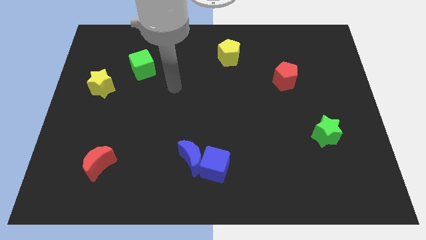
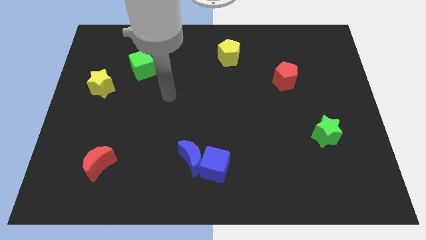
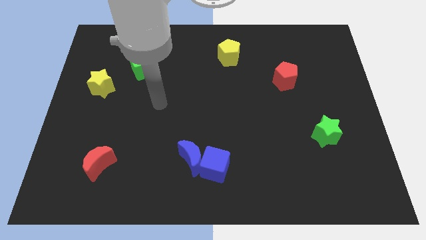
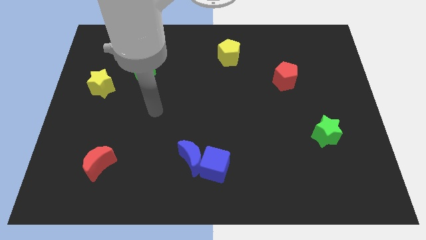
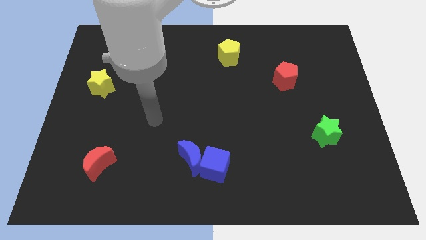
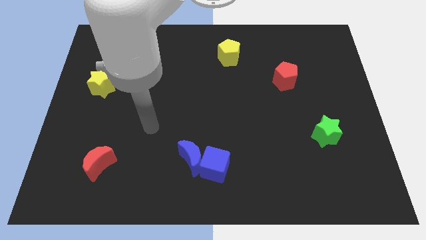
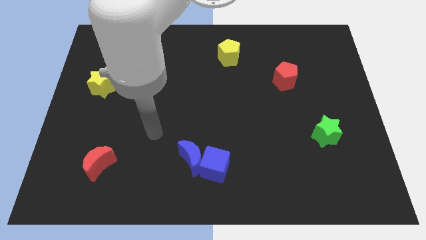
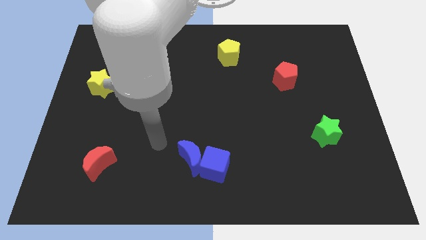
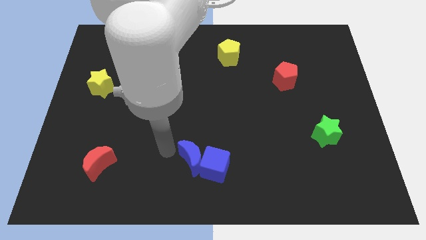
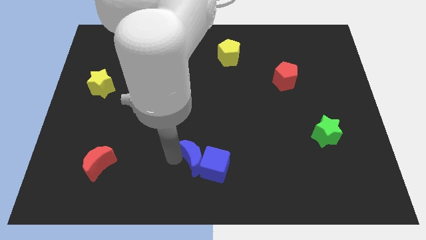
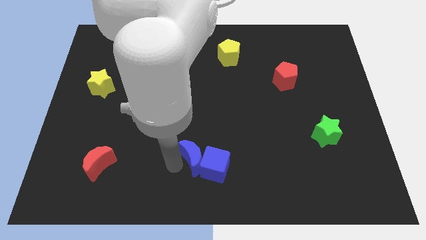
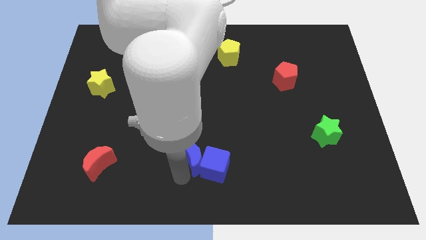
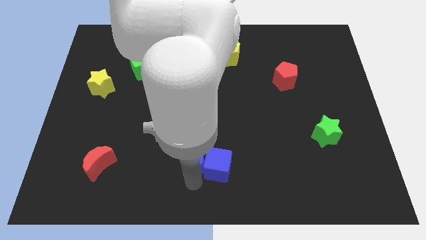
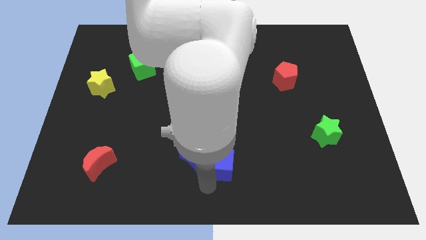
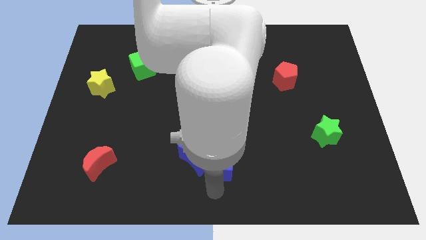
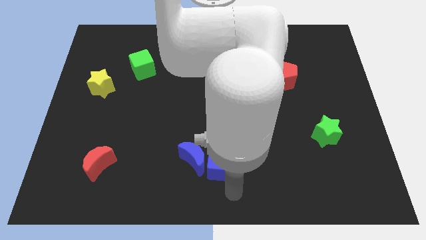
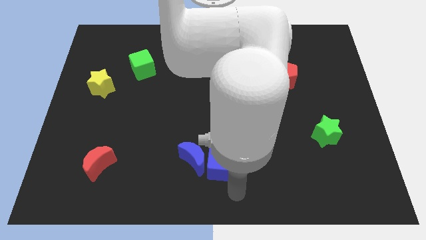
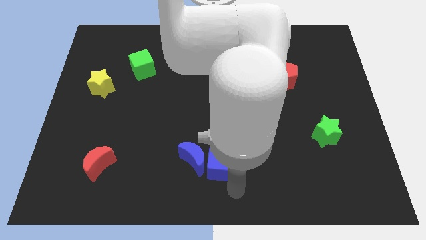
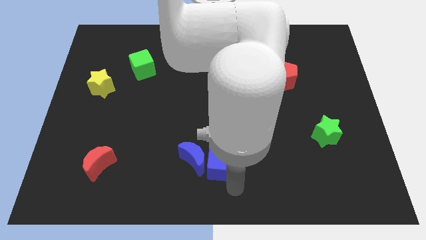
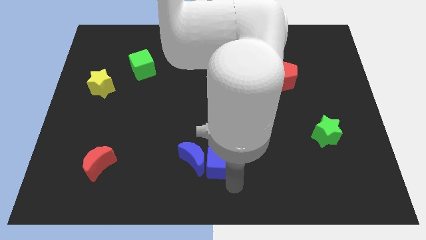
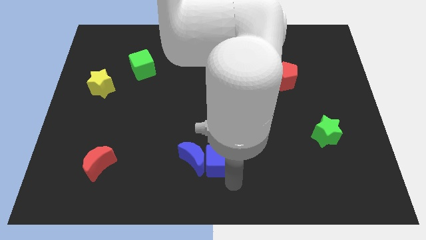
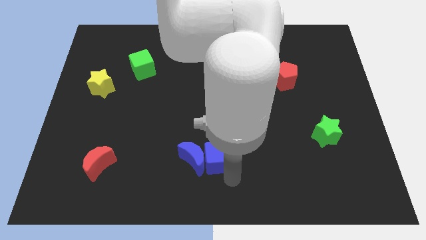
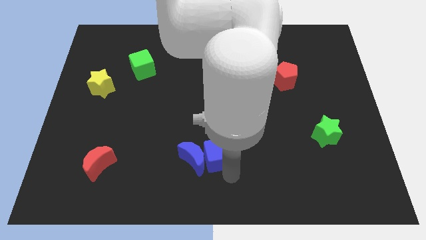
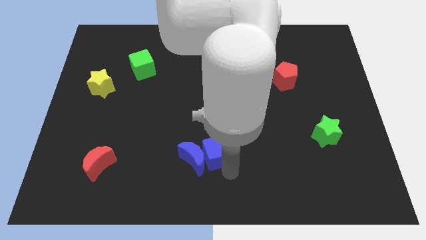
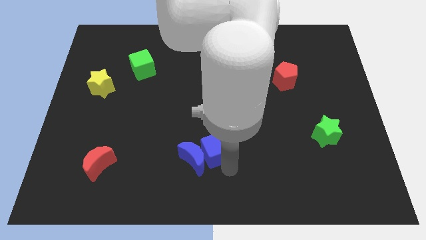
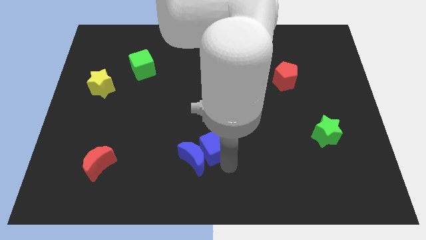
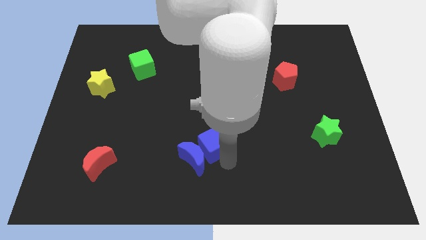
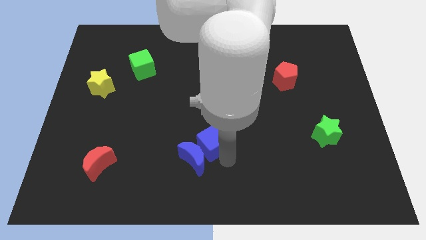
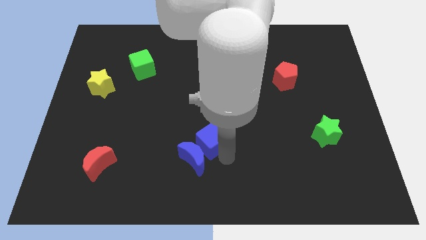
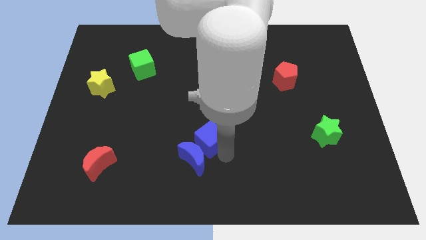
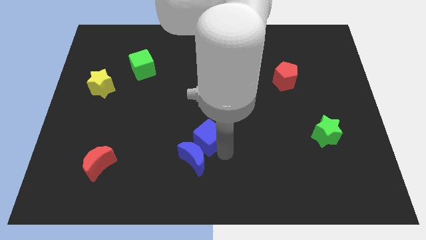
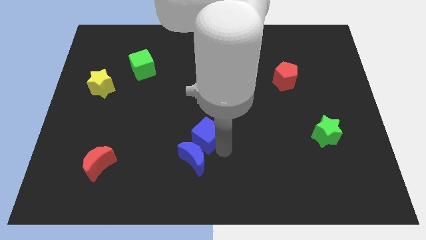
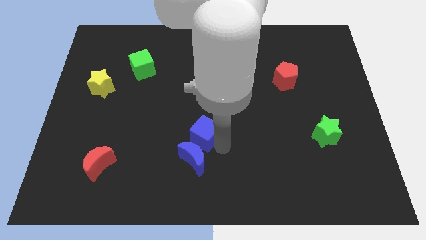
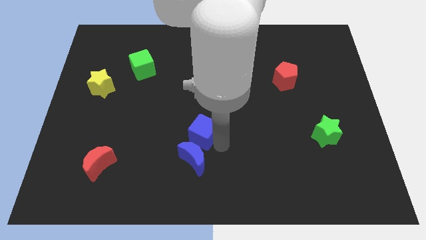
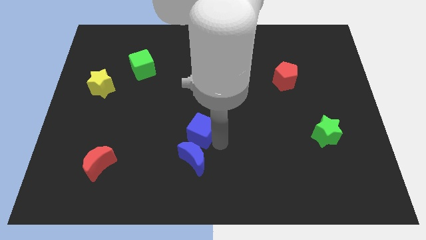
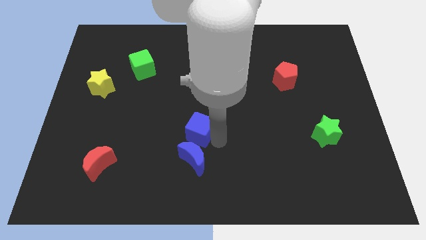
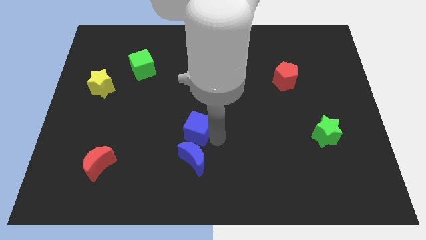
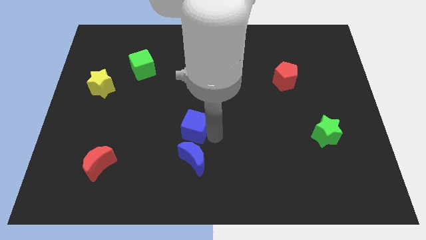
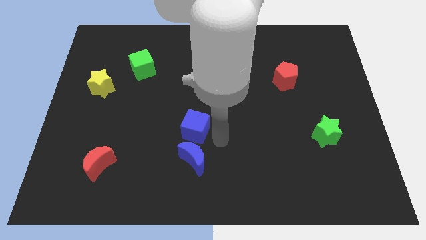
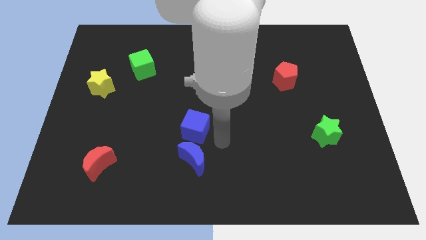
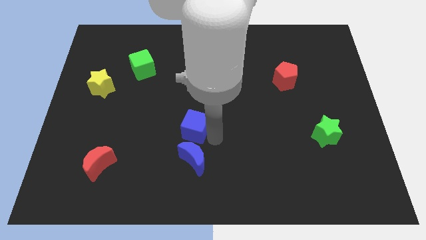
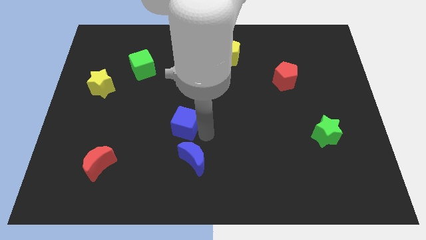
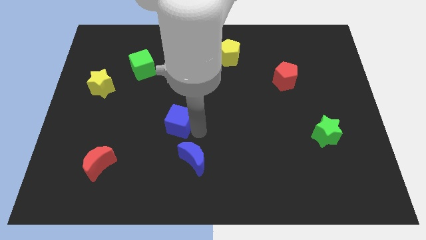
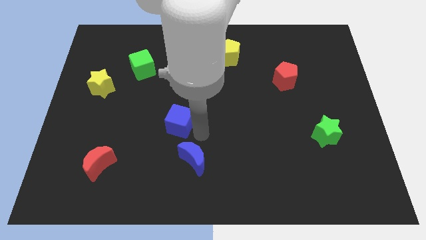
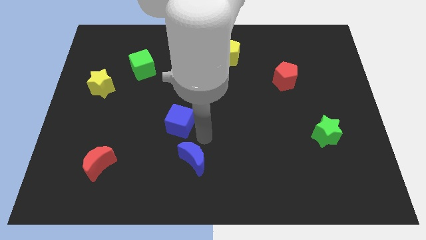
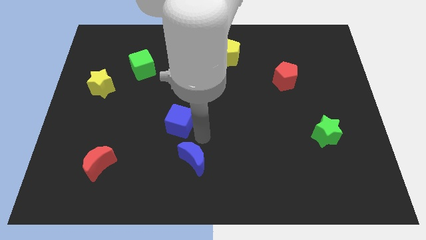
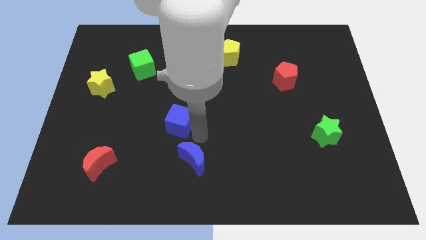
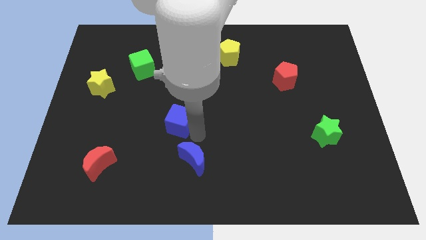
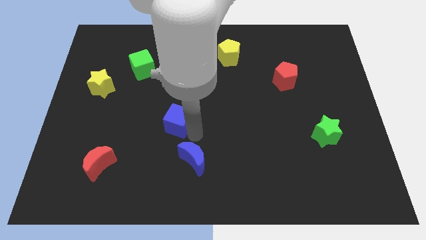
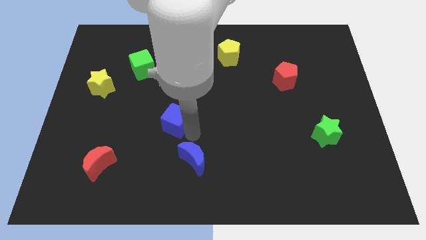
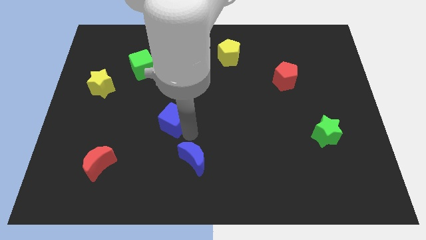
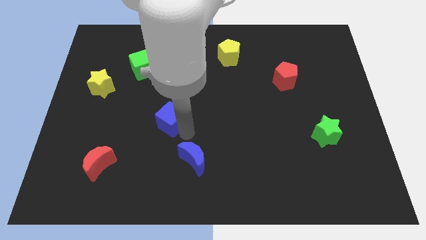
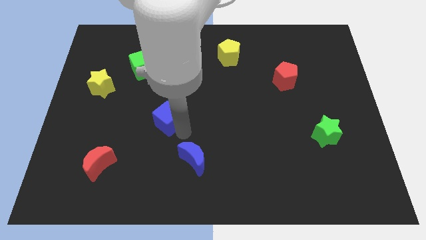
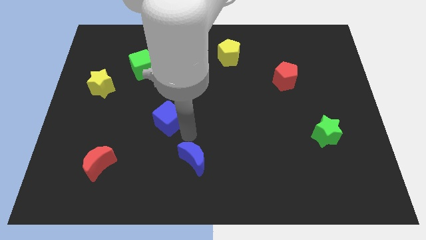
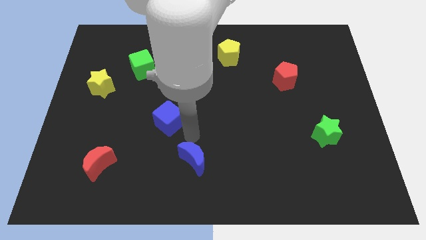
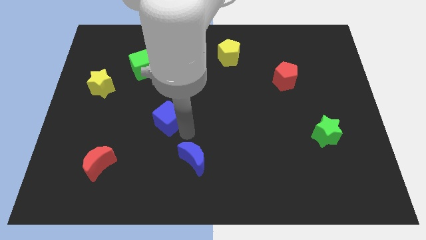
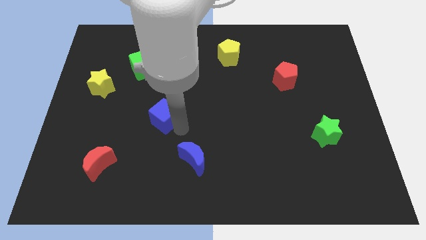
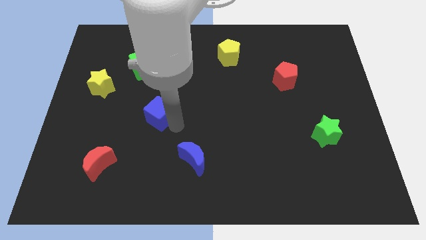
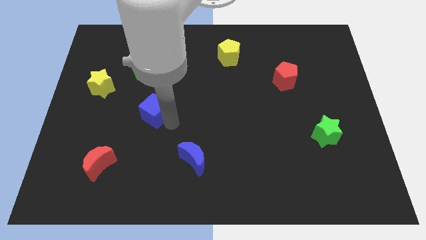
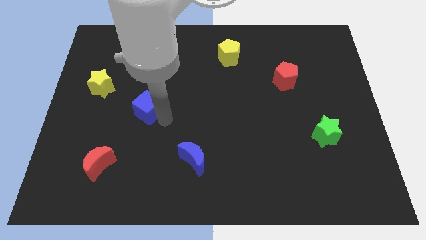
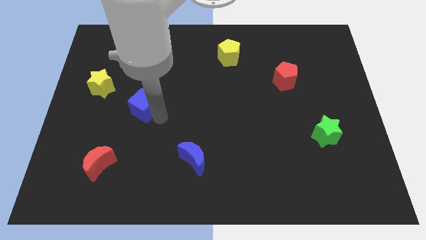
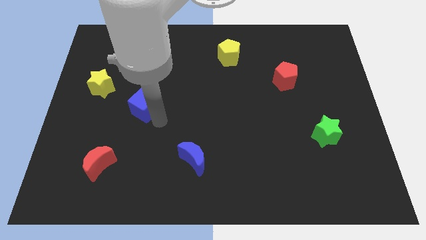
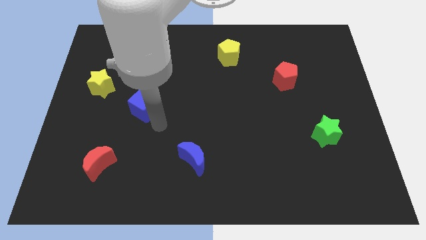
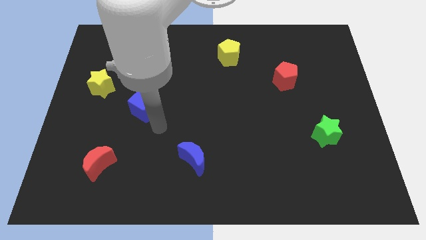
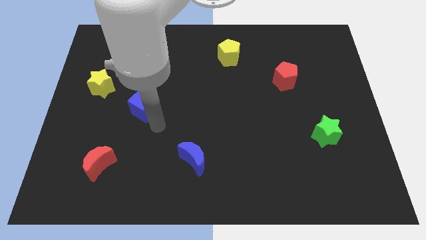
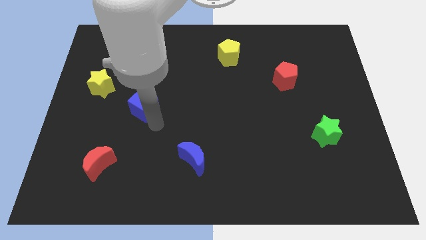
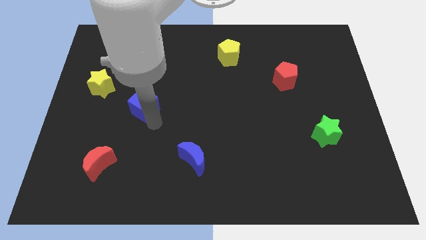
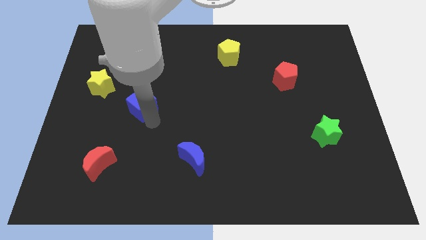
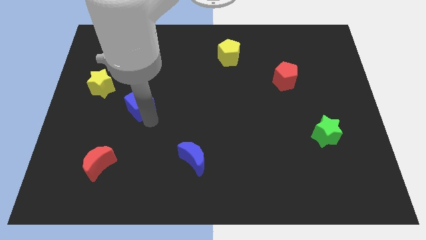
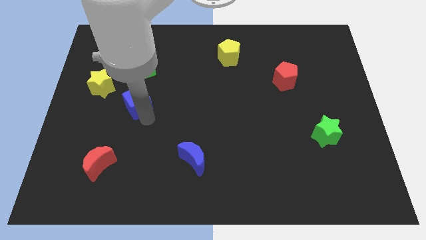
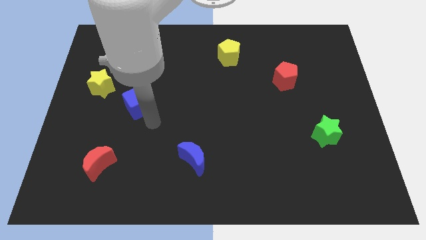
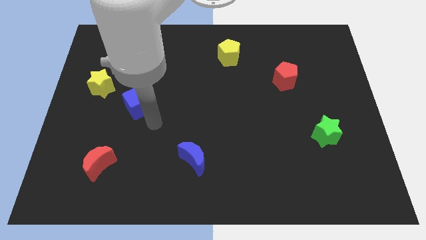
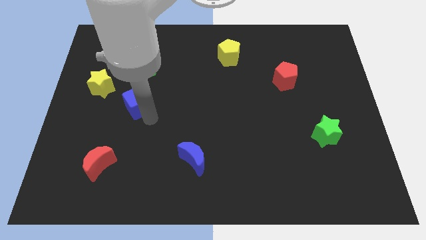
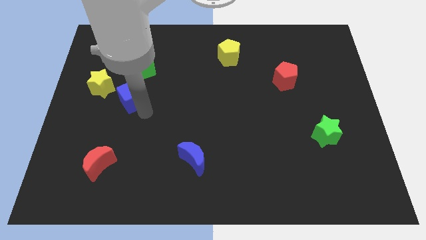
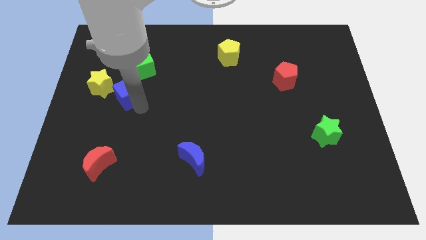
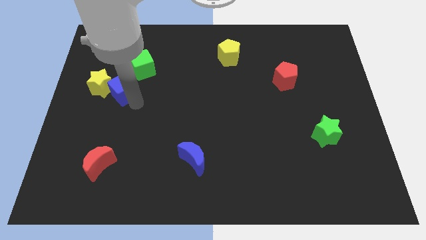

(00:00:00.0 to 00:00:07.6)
push the blue cube diagonally down and to the left of the green cube
